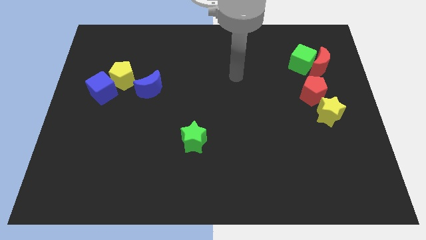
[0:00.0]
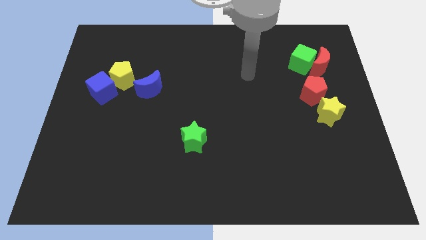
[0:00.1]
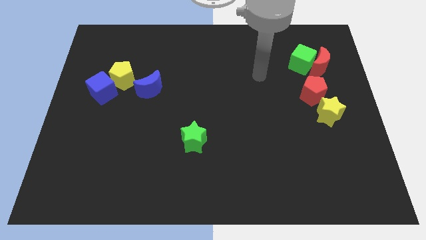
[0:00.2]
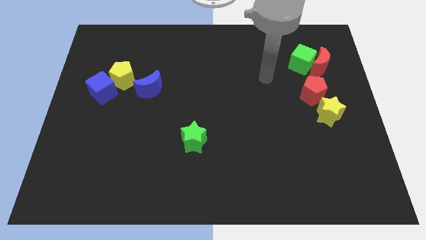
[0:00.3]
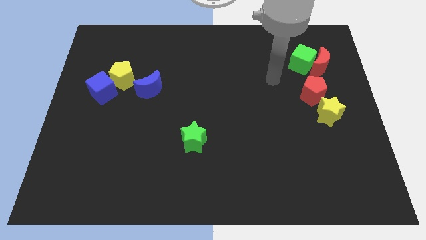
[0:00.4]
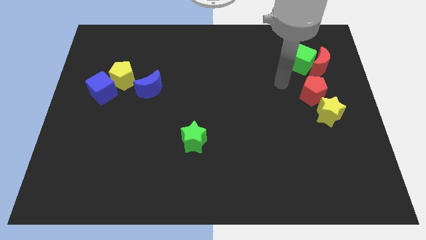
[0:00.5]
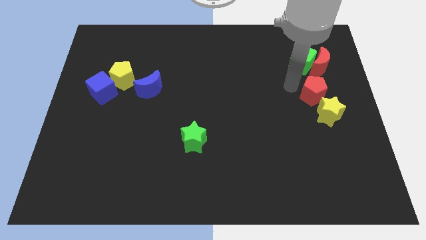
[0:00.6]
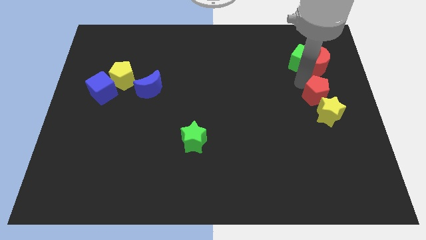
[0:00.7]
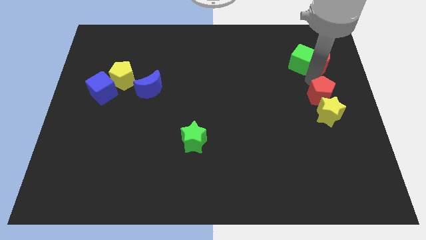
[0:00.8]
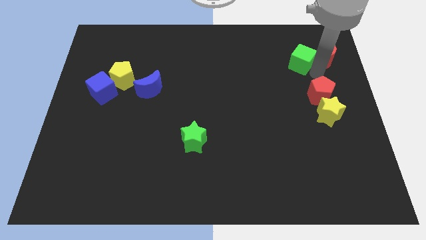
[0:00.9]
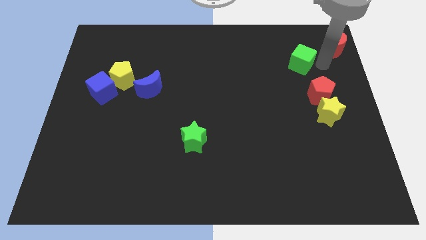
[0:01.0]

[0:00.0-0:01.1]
pull the green cube apart from the red moon

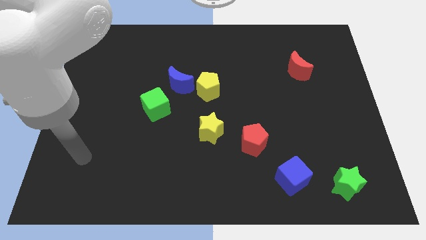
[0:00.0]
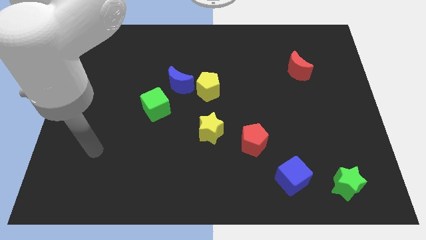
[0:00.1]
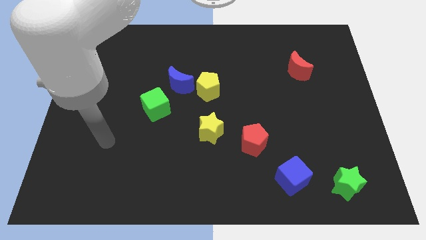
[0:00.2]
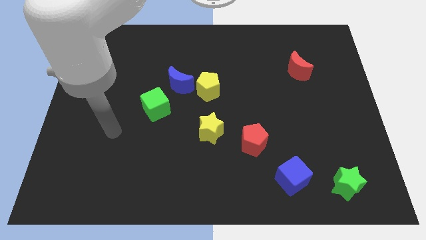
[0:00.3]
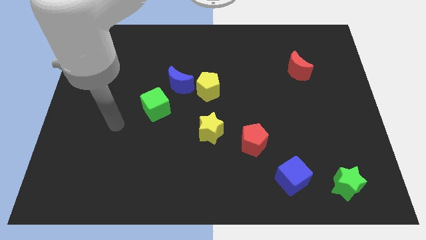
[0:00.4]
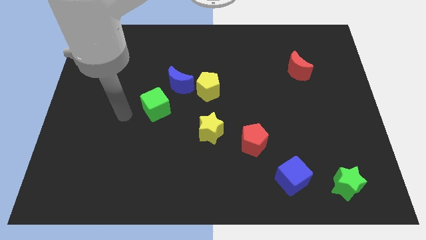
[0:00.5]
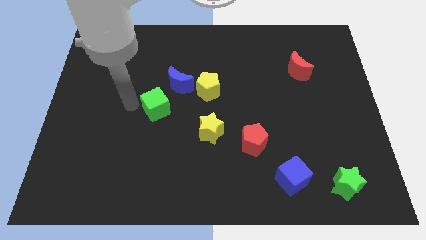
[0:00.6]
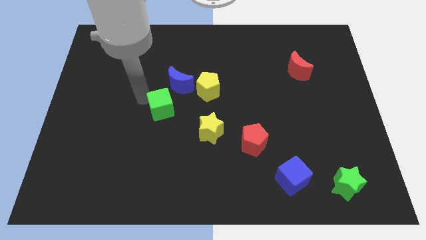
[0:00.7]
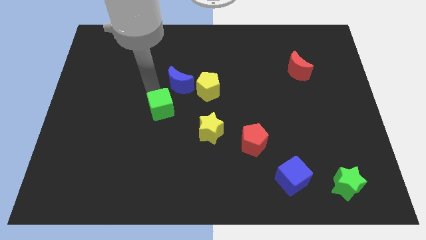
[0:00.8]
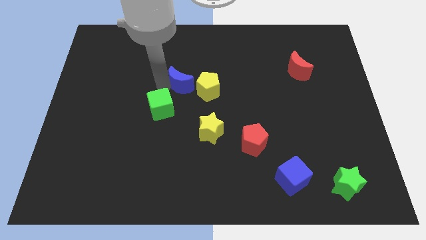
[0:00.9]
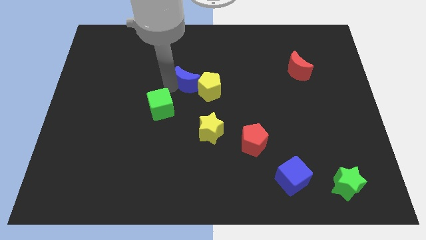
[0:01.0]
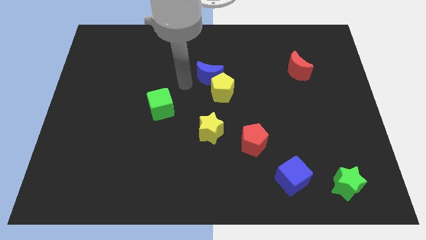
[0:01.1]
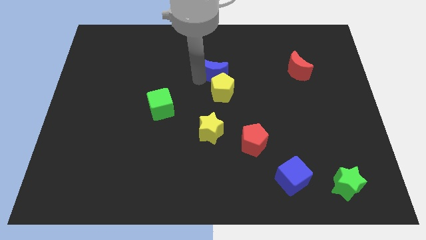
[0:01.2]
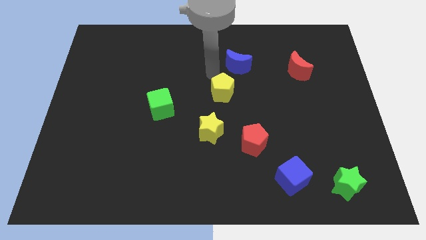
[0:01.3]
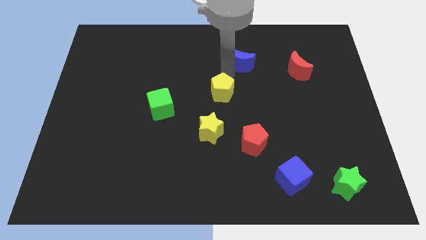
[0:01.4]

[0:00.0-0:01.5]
pull the yellow pentagon apart from the blue moon

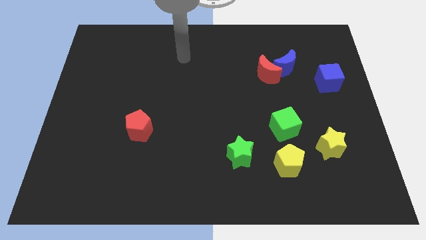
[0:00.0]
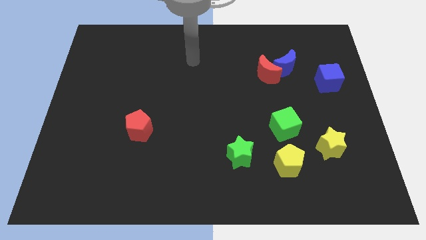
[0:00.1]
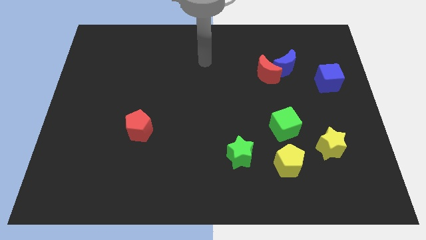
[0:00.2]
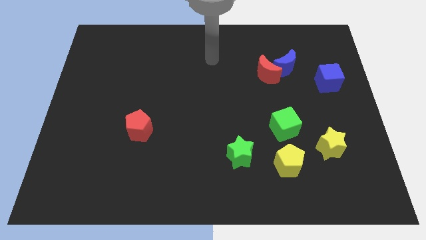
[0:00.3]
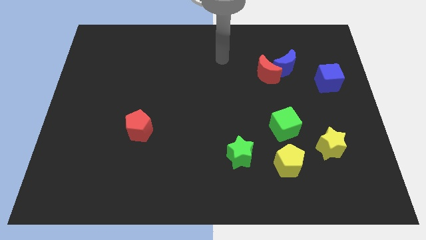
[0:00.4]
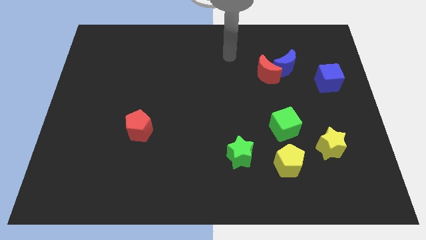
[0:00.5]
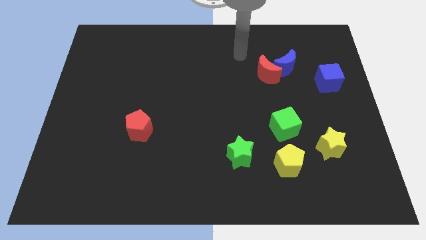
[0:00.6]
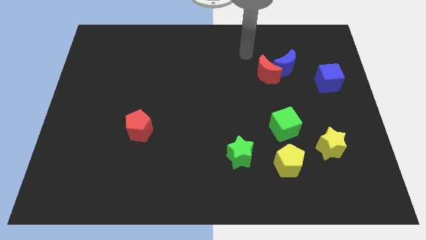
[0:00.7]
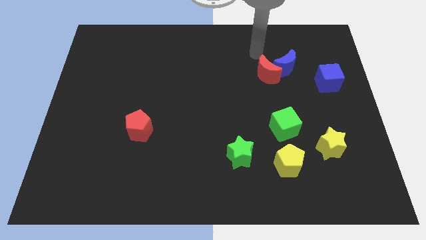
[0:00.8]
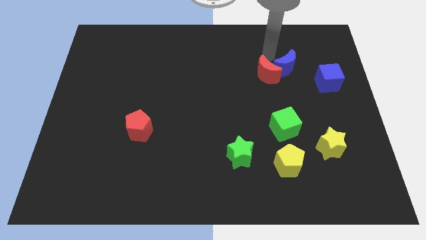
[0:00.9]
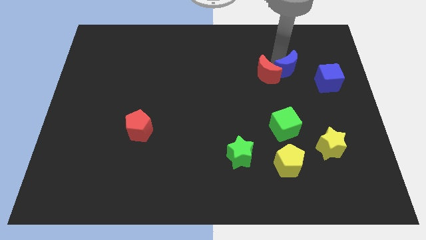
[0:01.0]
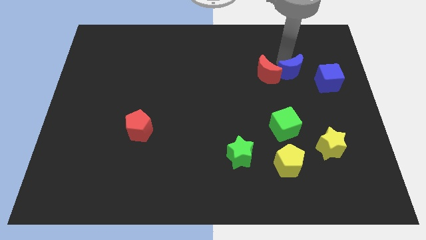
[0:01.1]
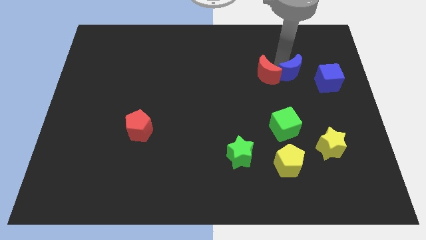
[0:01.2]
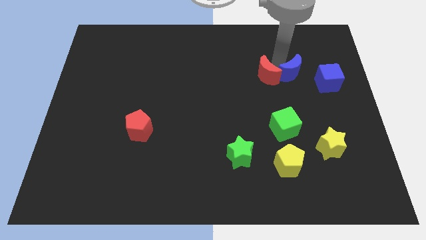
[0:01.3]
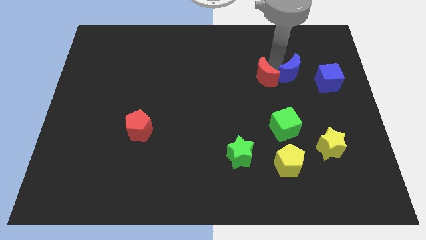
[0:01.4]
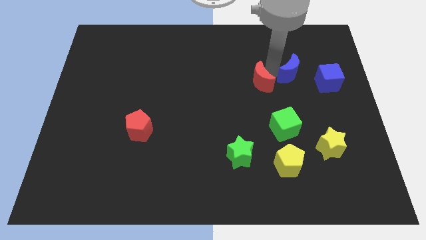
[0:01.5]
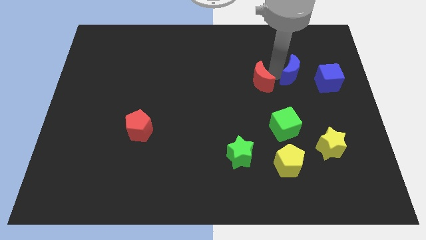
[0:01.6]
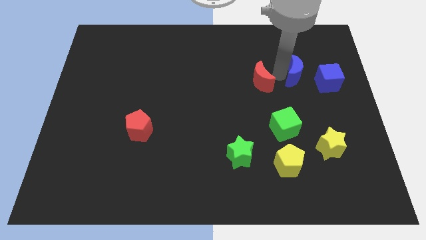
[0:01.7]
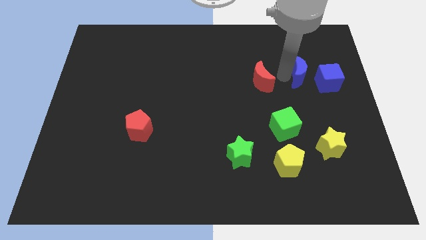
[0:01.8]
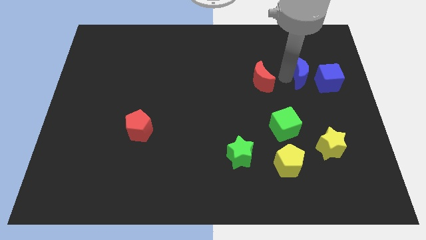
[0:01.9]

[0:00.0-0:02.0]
pull the red moon apart from the blue moon

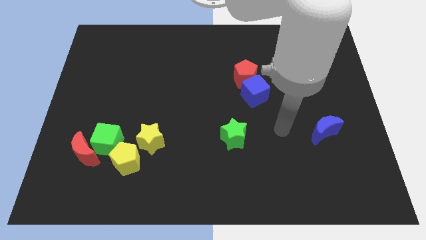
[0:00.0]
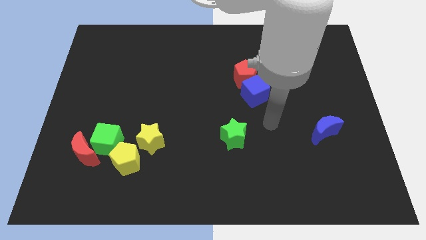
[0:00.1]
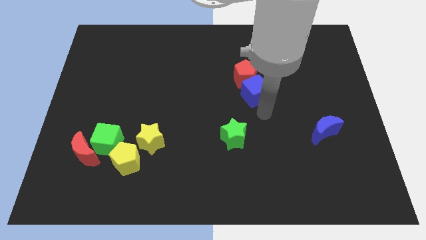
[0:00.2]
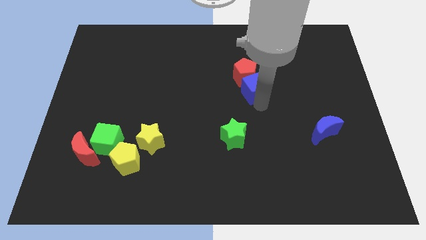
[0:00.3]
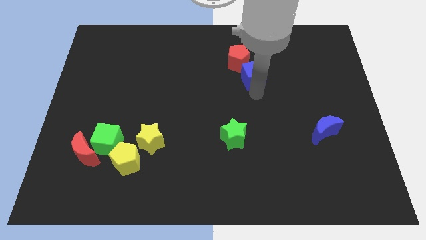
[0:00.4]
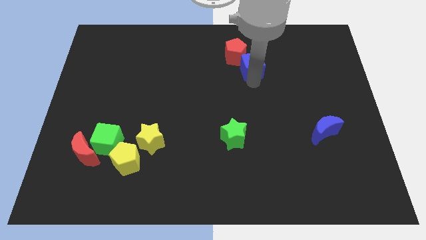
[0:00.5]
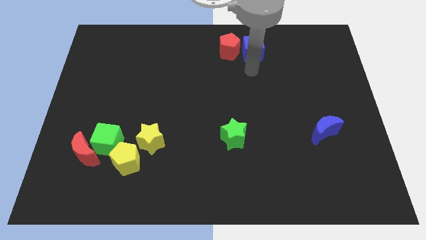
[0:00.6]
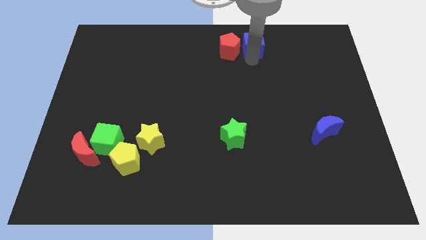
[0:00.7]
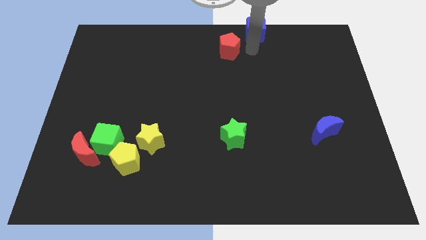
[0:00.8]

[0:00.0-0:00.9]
separate the red pentagon from the blue cube

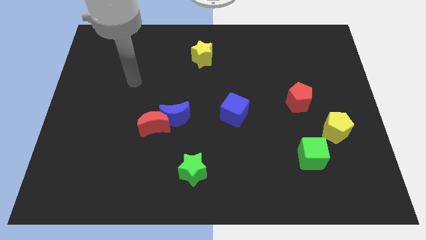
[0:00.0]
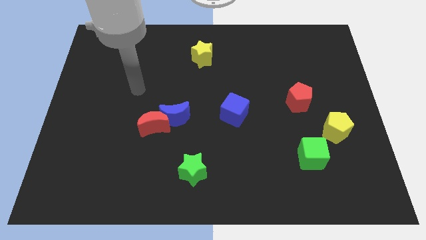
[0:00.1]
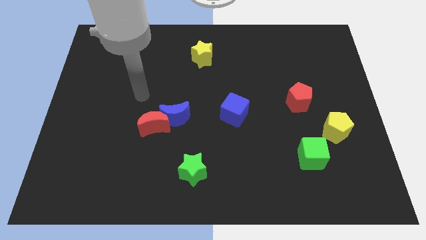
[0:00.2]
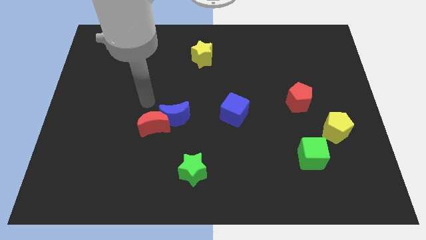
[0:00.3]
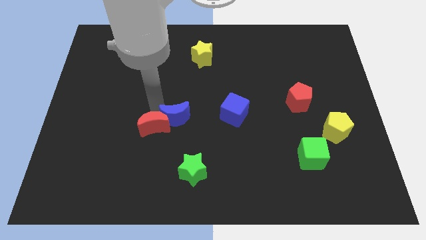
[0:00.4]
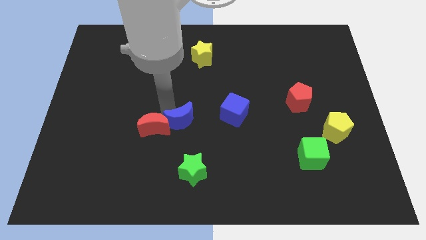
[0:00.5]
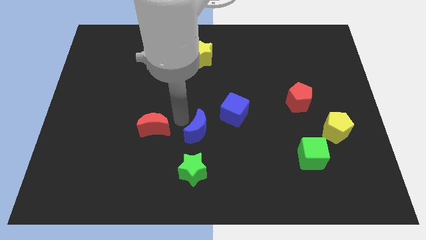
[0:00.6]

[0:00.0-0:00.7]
move the red moon away from the blue moon

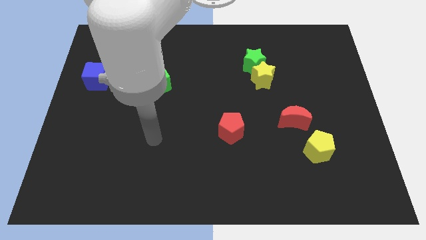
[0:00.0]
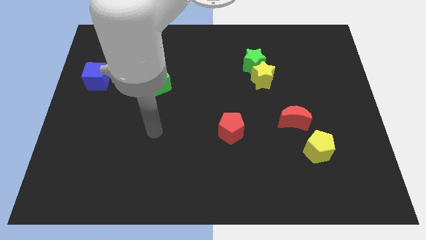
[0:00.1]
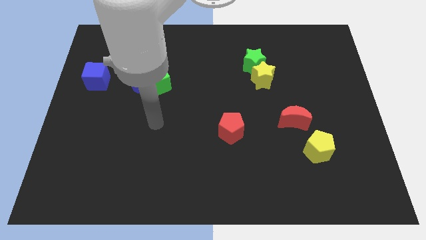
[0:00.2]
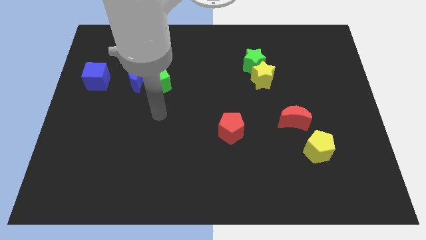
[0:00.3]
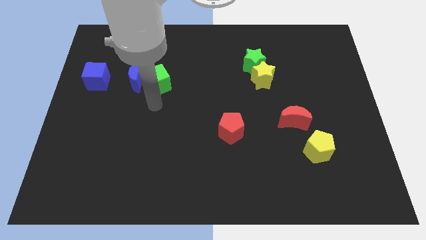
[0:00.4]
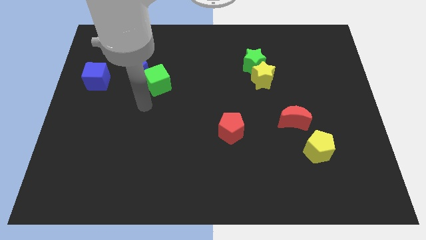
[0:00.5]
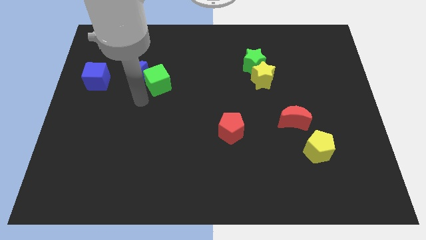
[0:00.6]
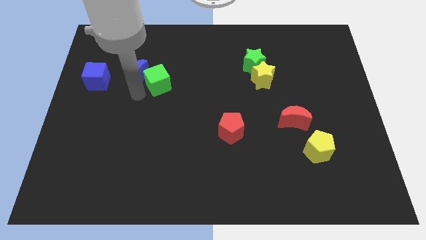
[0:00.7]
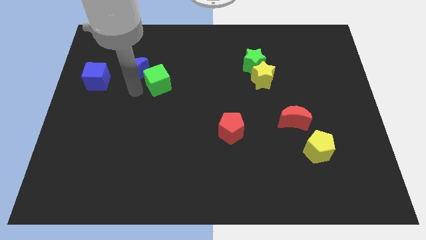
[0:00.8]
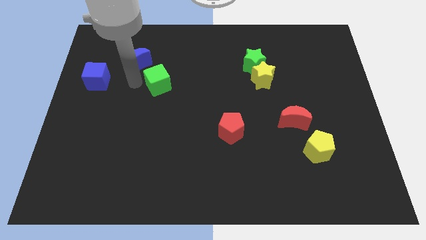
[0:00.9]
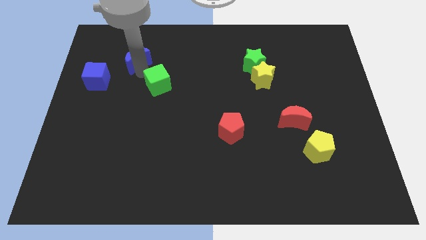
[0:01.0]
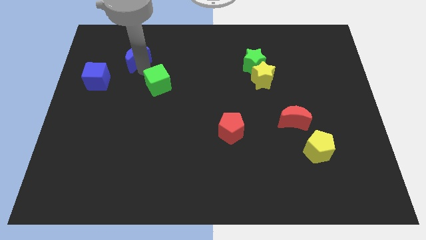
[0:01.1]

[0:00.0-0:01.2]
pull the green cube apart from the blue moon

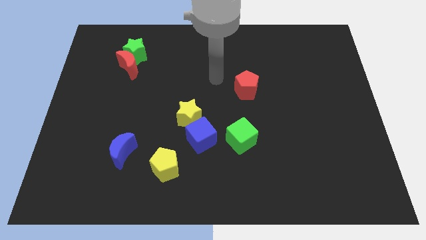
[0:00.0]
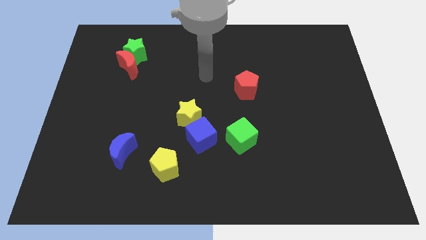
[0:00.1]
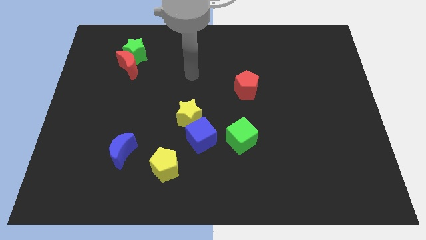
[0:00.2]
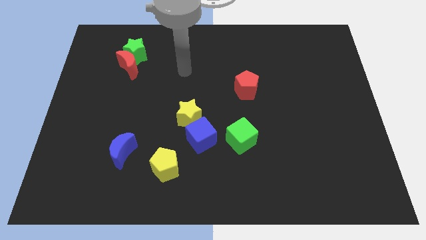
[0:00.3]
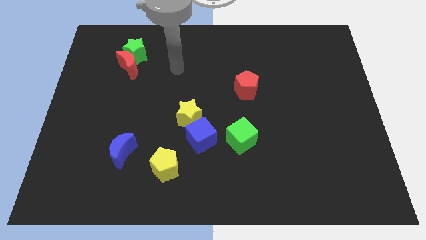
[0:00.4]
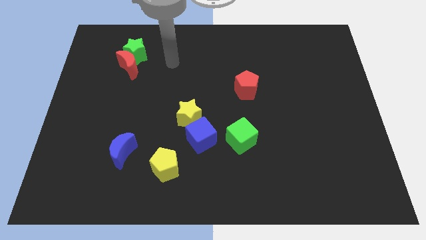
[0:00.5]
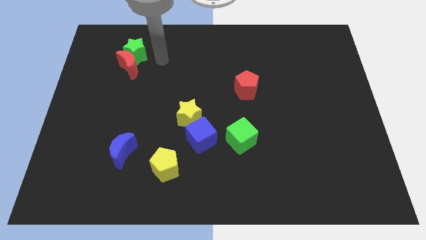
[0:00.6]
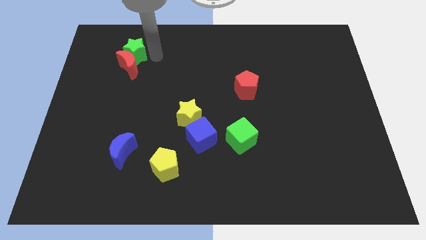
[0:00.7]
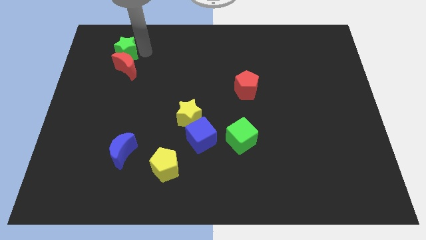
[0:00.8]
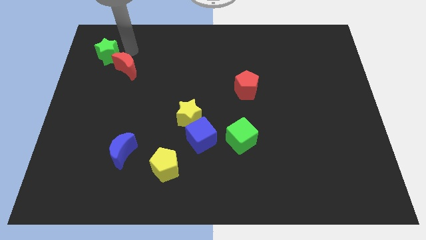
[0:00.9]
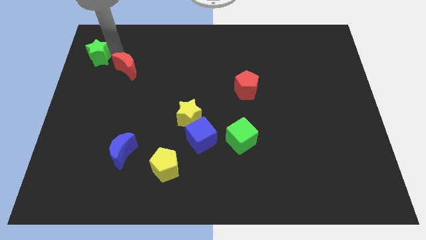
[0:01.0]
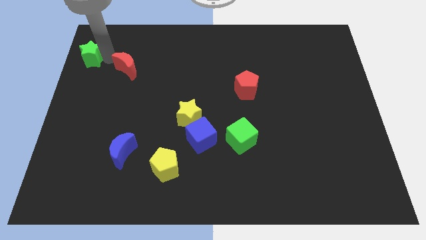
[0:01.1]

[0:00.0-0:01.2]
move the red moon away from the green star

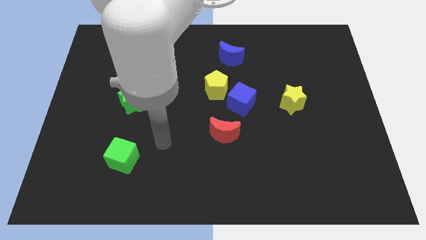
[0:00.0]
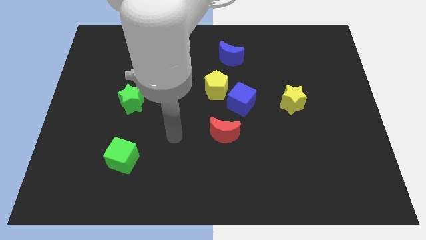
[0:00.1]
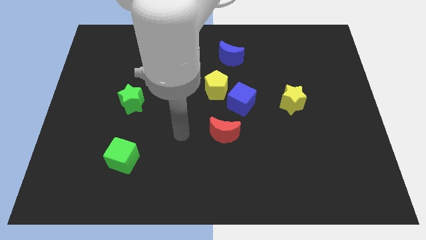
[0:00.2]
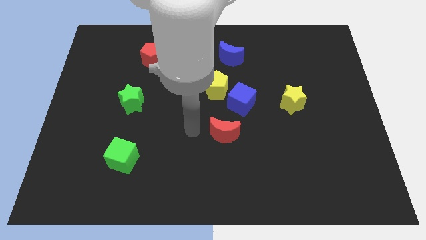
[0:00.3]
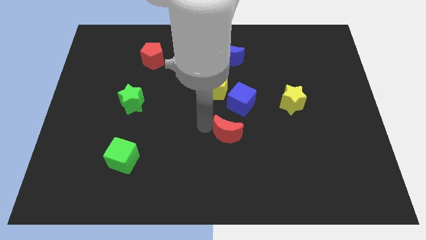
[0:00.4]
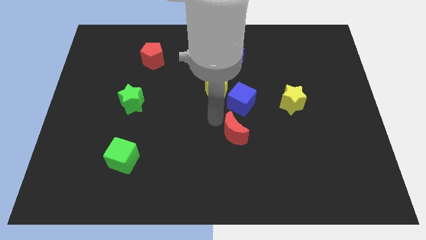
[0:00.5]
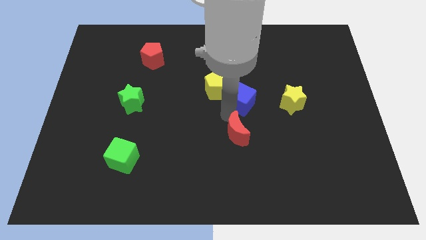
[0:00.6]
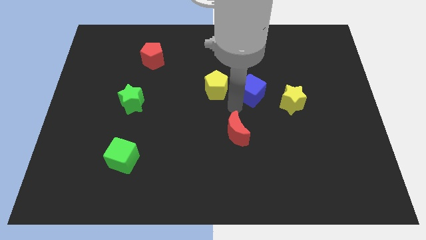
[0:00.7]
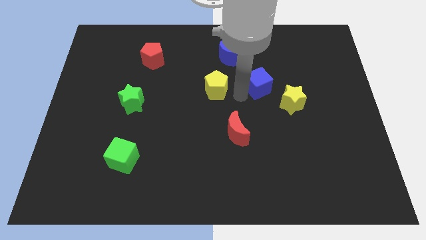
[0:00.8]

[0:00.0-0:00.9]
pull the yellow pentagon apart from the blue cube
